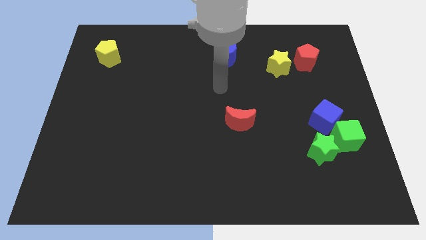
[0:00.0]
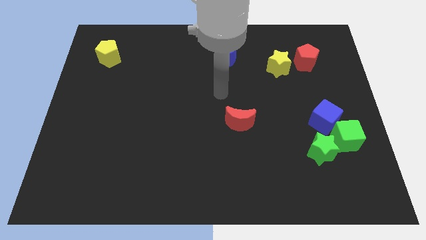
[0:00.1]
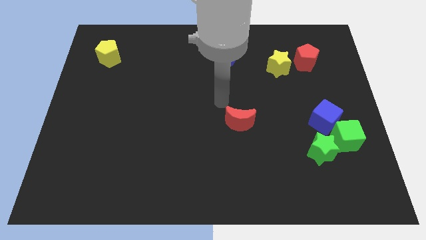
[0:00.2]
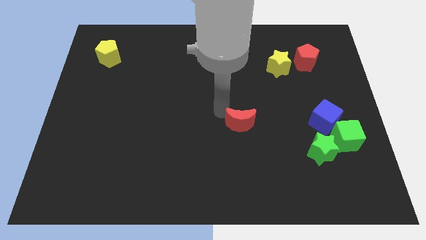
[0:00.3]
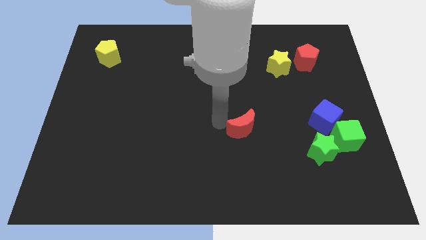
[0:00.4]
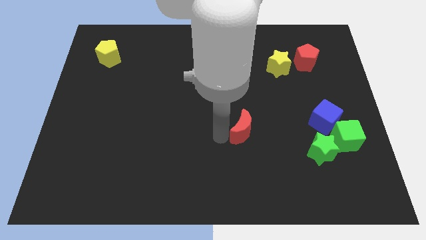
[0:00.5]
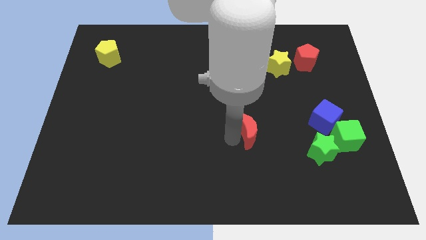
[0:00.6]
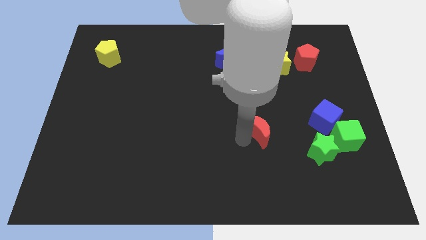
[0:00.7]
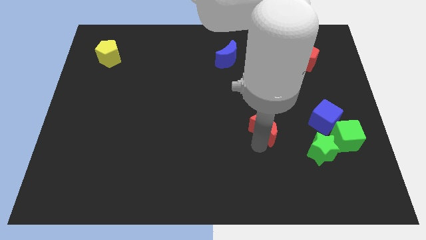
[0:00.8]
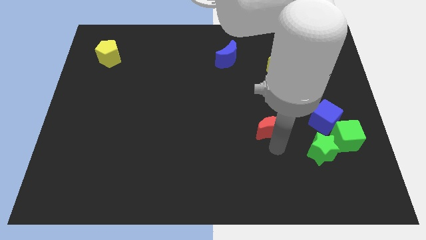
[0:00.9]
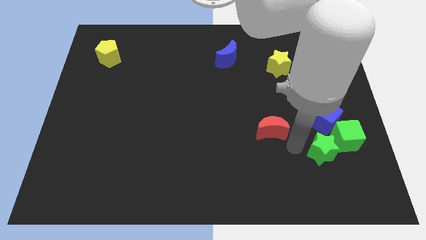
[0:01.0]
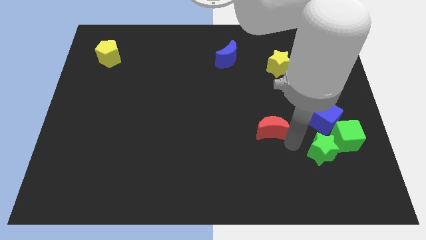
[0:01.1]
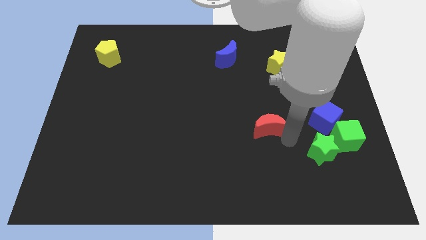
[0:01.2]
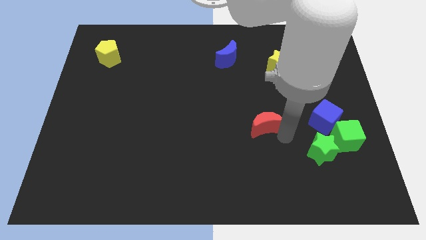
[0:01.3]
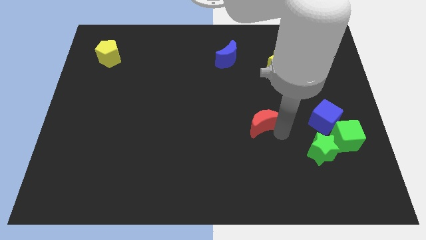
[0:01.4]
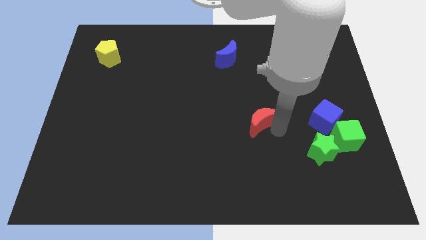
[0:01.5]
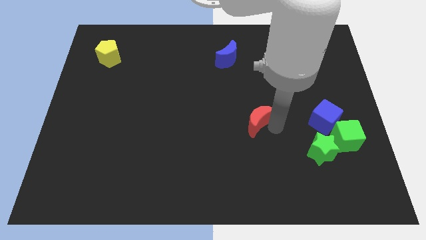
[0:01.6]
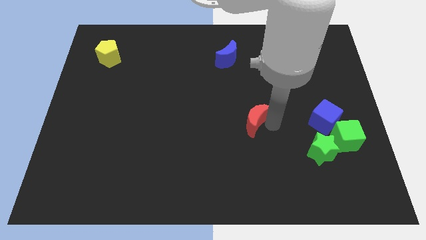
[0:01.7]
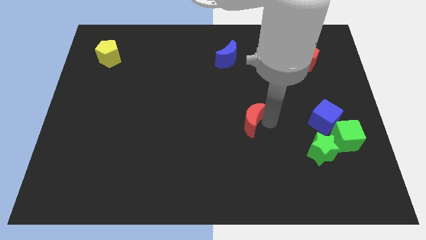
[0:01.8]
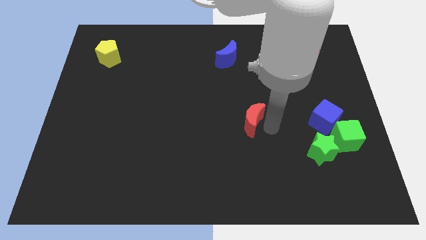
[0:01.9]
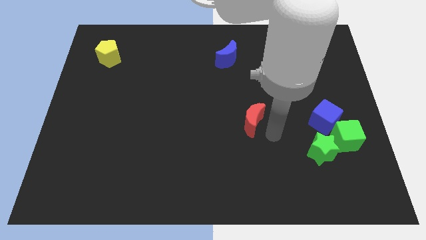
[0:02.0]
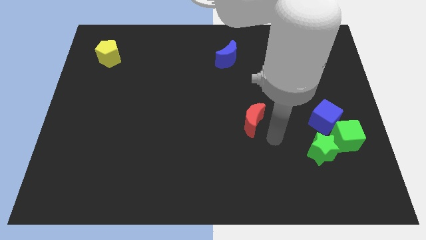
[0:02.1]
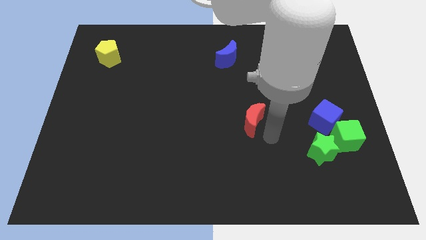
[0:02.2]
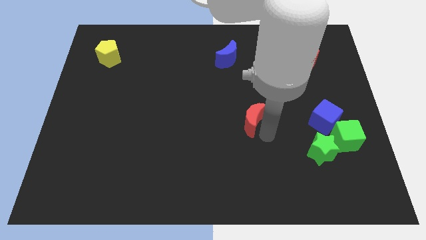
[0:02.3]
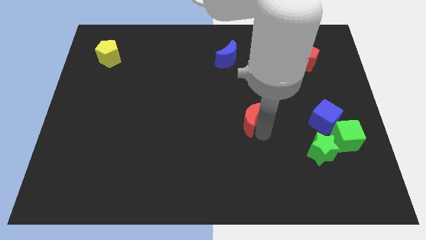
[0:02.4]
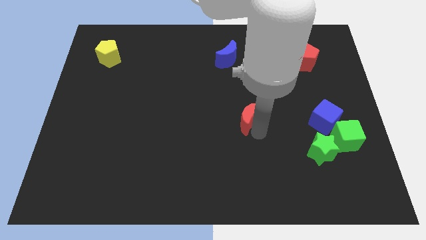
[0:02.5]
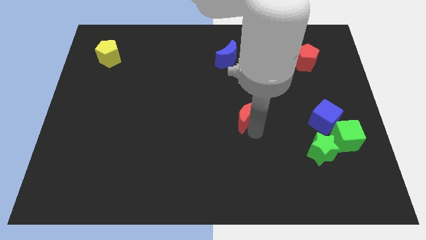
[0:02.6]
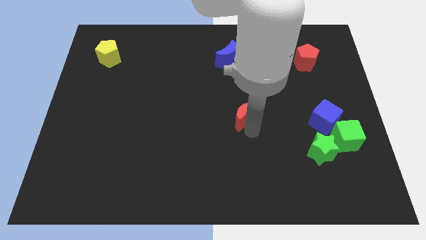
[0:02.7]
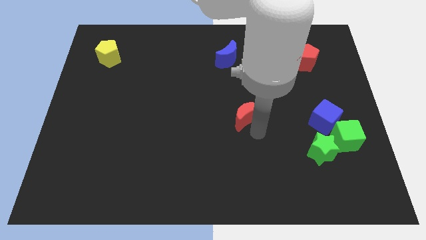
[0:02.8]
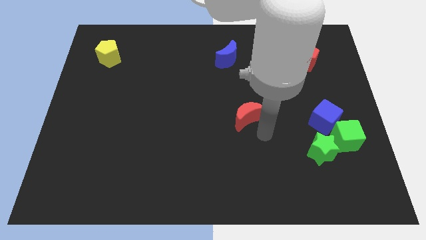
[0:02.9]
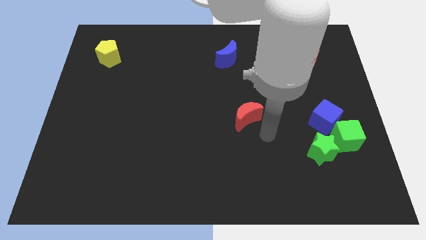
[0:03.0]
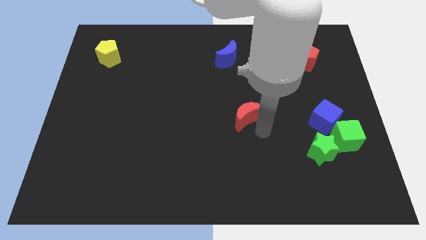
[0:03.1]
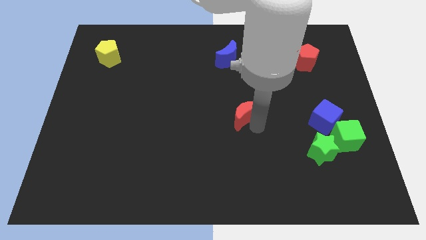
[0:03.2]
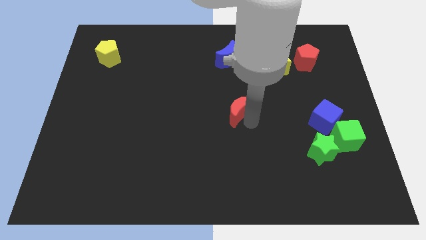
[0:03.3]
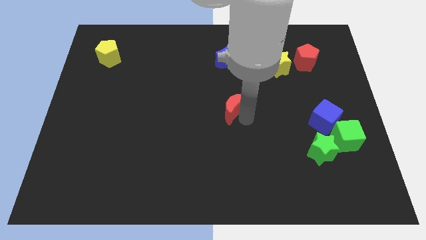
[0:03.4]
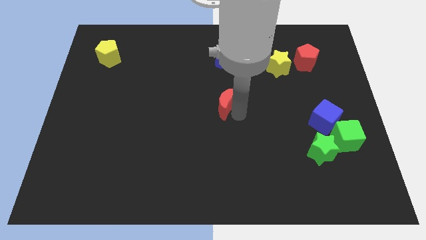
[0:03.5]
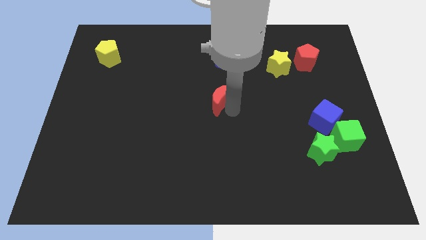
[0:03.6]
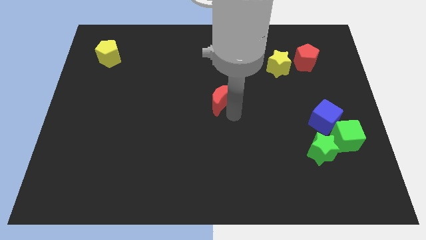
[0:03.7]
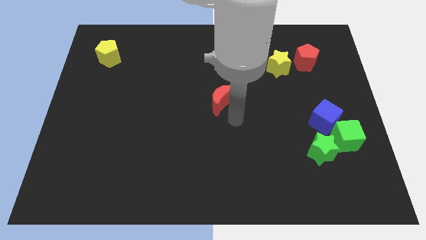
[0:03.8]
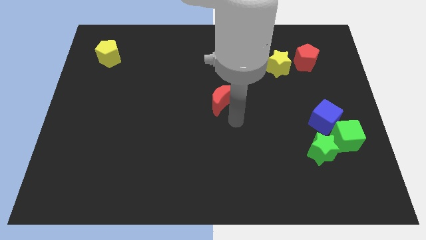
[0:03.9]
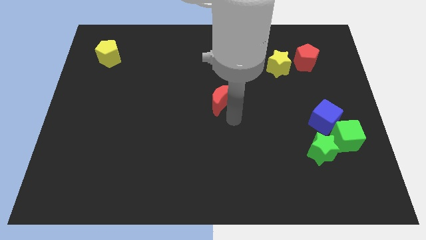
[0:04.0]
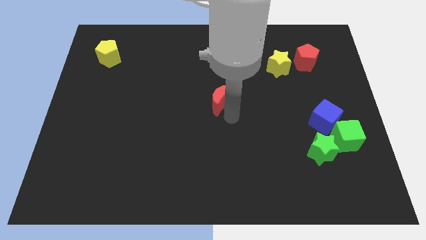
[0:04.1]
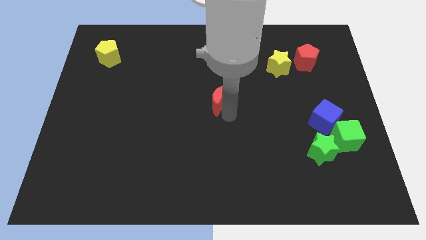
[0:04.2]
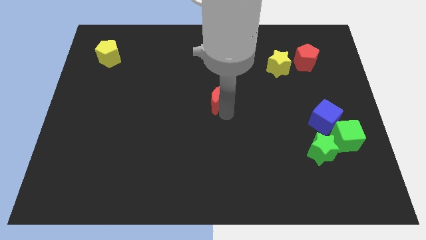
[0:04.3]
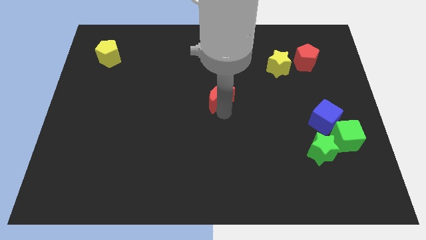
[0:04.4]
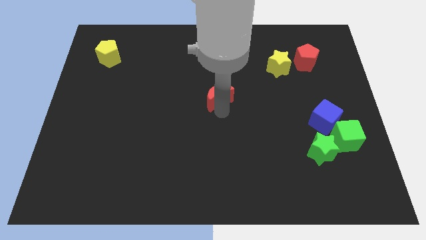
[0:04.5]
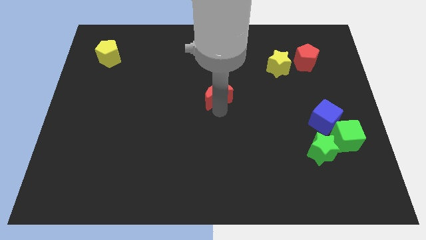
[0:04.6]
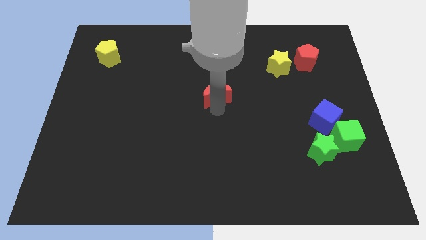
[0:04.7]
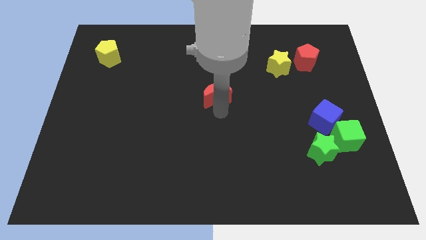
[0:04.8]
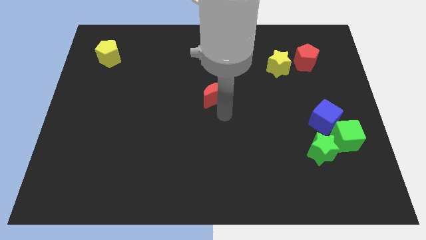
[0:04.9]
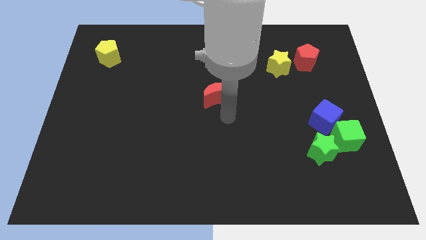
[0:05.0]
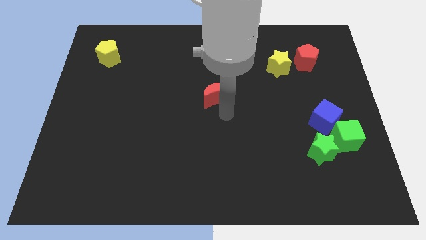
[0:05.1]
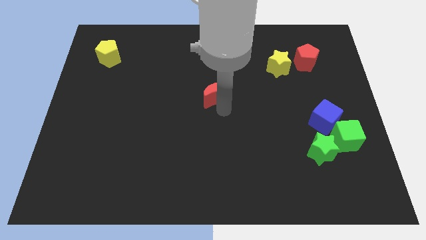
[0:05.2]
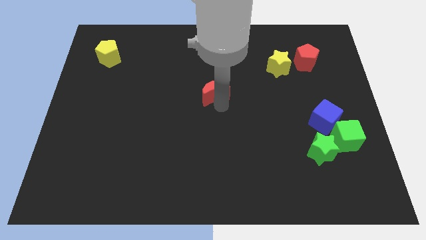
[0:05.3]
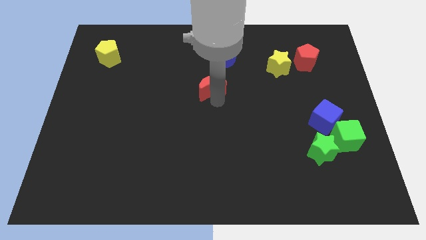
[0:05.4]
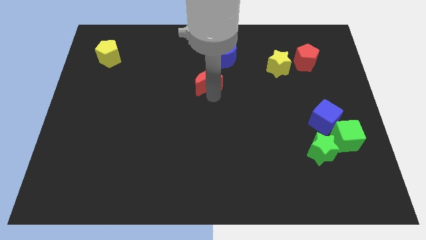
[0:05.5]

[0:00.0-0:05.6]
push the red moon diagonally down and to the left of the blue moon

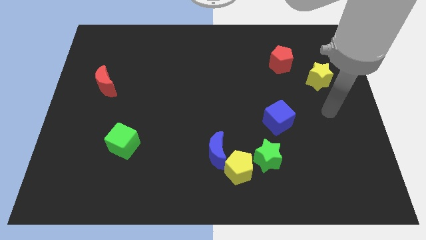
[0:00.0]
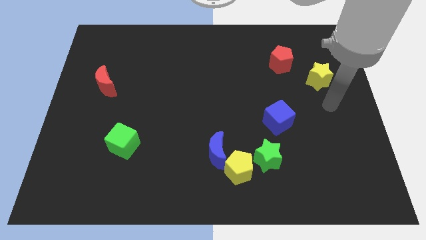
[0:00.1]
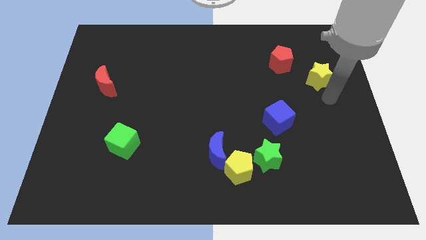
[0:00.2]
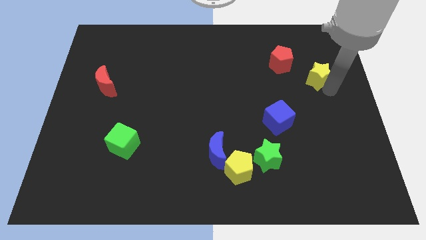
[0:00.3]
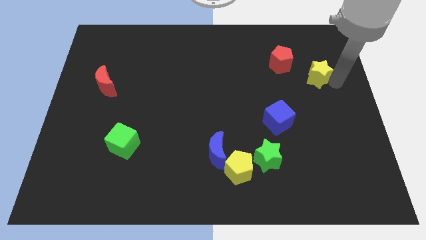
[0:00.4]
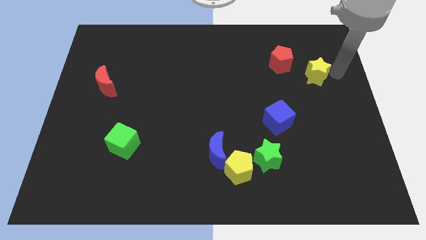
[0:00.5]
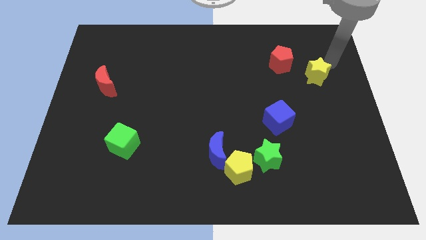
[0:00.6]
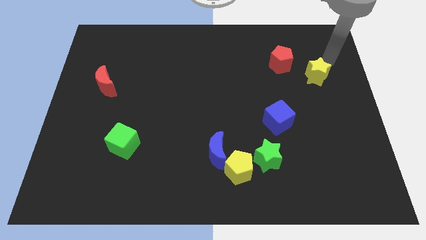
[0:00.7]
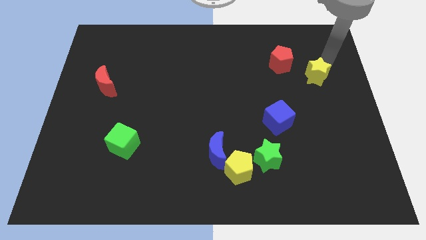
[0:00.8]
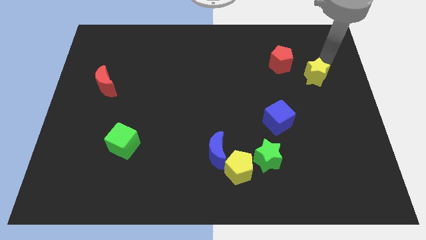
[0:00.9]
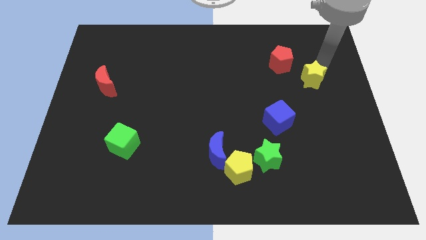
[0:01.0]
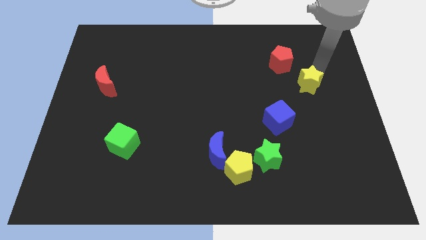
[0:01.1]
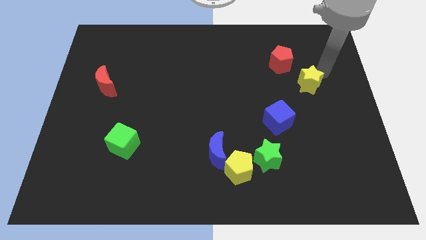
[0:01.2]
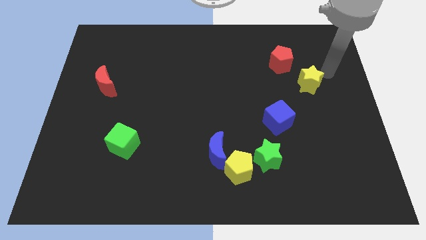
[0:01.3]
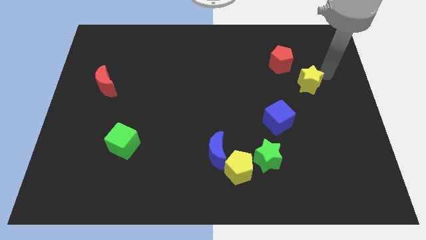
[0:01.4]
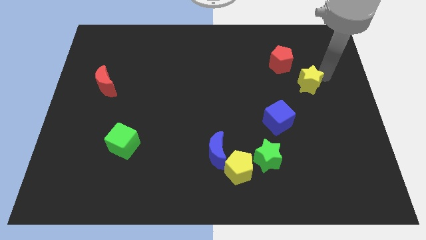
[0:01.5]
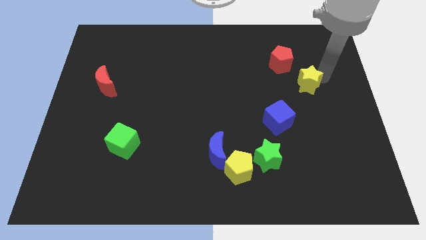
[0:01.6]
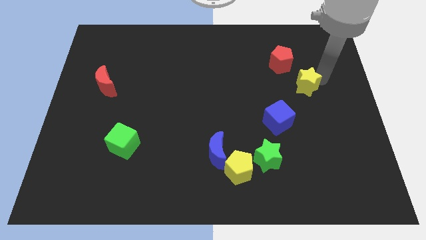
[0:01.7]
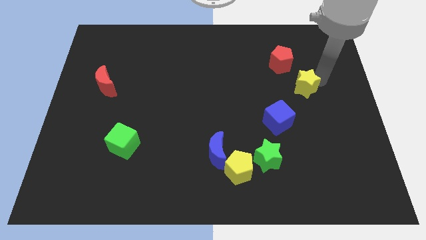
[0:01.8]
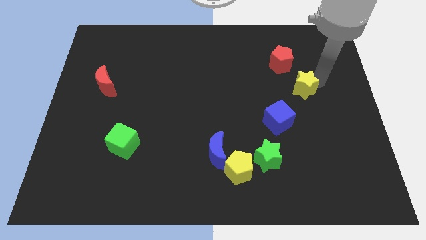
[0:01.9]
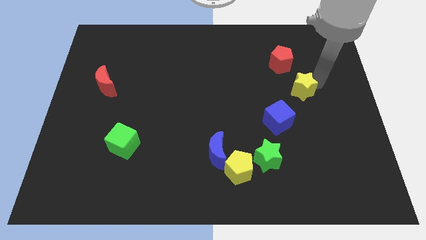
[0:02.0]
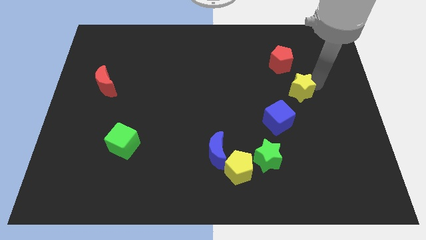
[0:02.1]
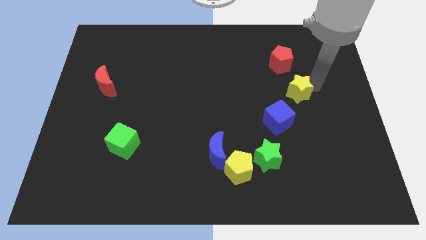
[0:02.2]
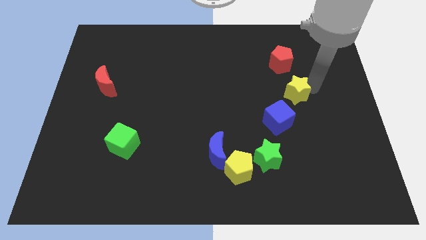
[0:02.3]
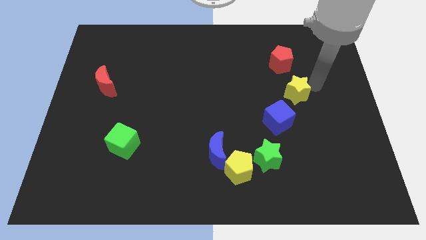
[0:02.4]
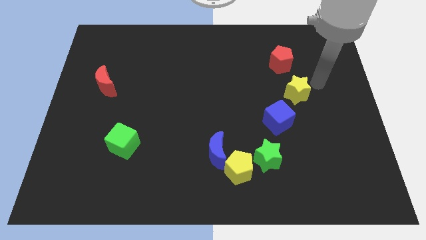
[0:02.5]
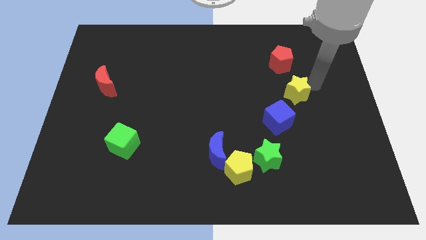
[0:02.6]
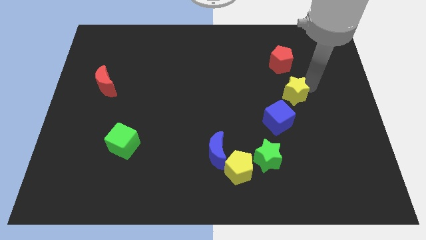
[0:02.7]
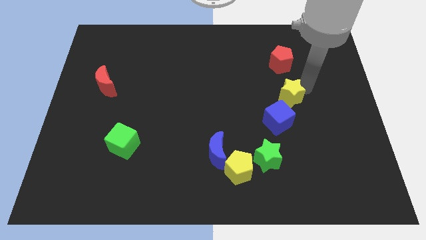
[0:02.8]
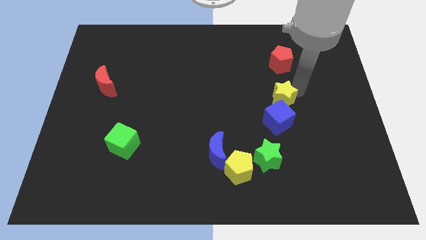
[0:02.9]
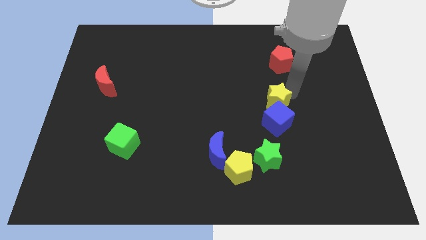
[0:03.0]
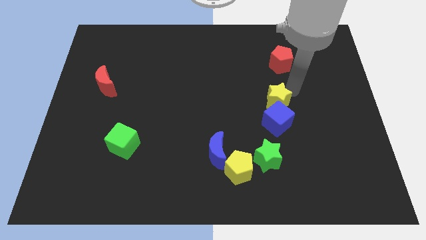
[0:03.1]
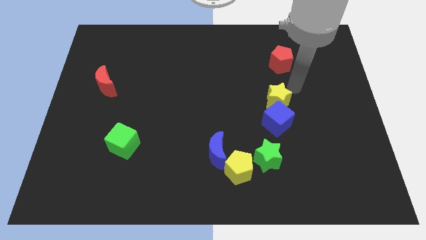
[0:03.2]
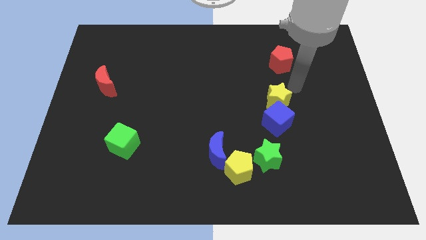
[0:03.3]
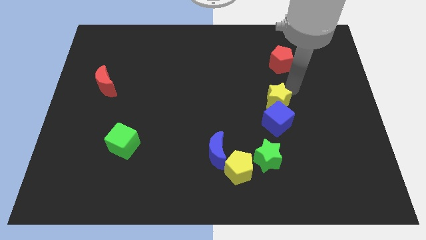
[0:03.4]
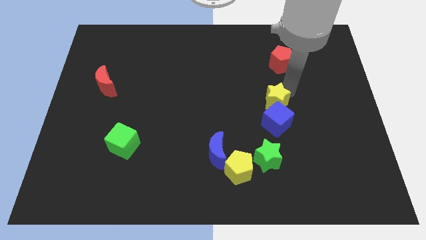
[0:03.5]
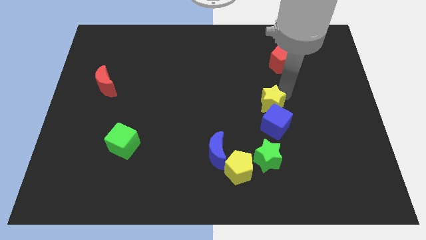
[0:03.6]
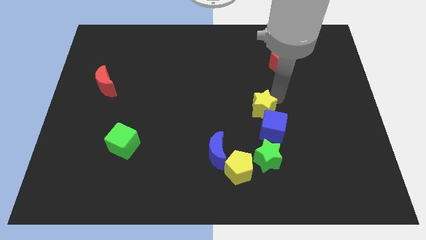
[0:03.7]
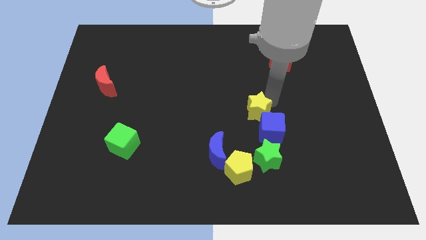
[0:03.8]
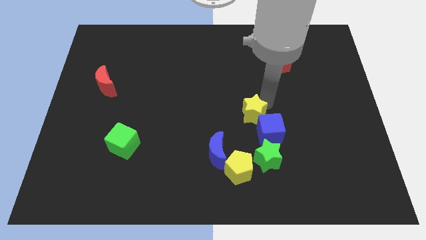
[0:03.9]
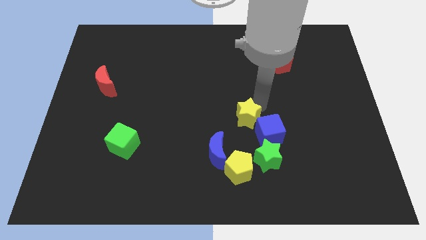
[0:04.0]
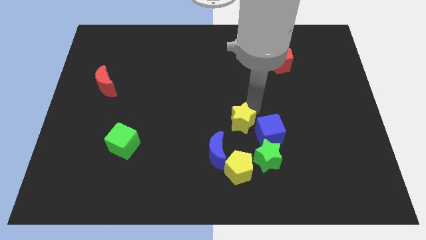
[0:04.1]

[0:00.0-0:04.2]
push the yellow star diagonally up and to the left of the green star
